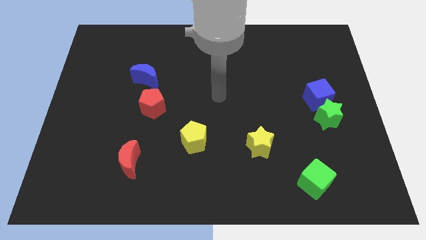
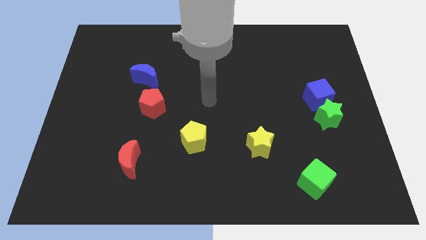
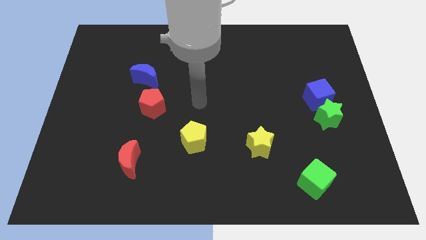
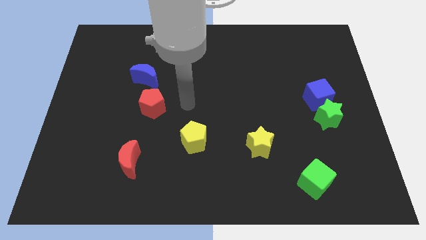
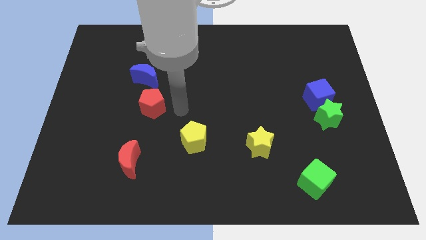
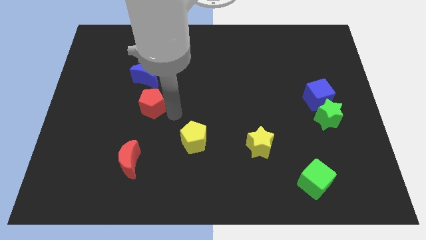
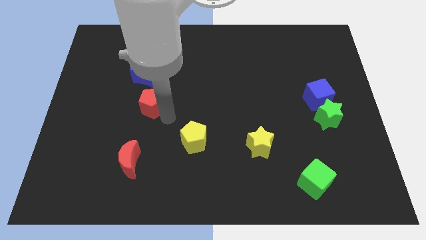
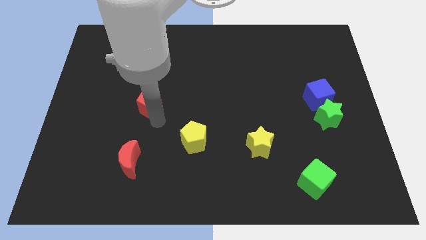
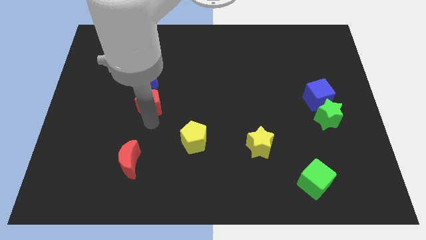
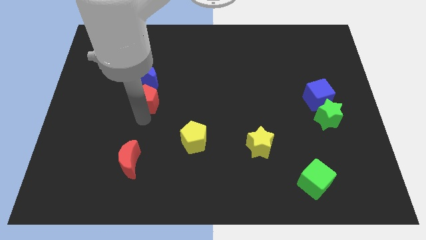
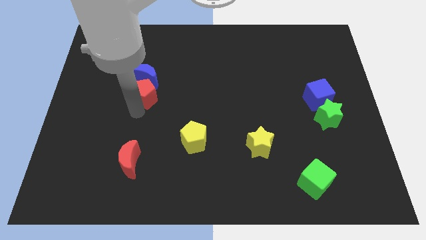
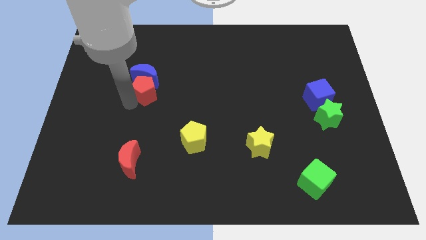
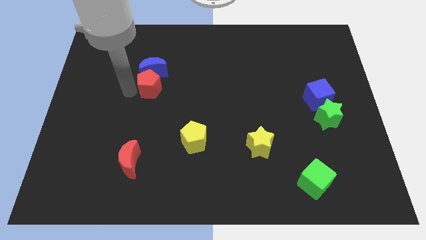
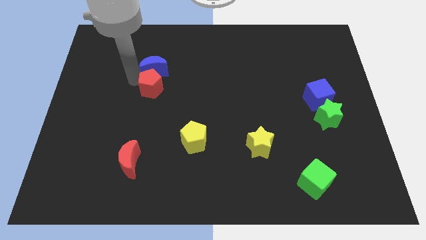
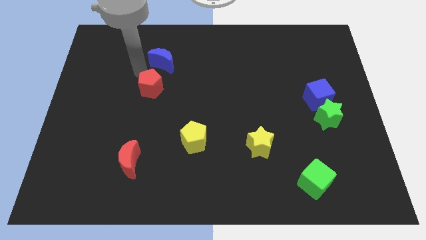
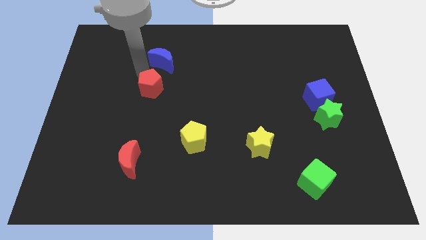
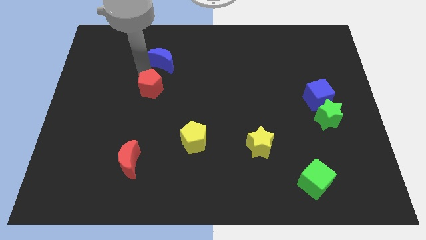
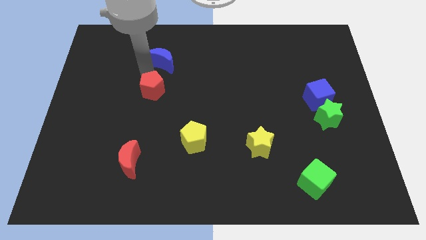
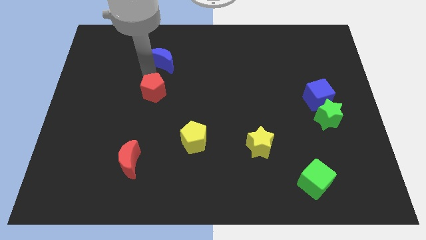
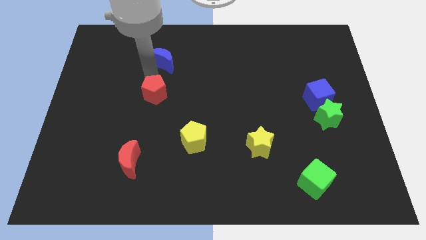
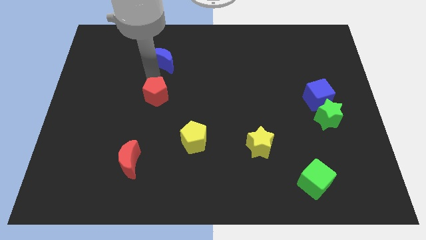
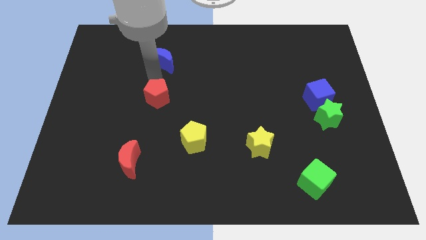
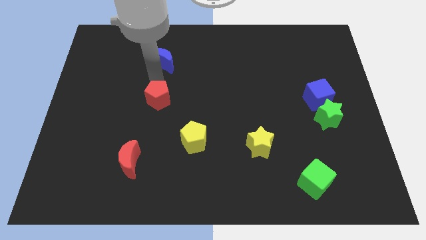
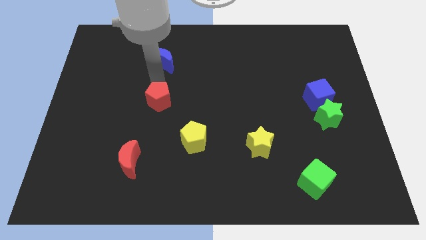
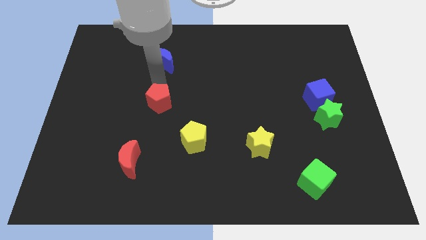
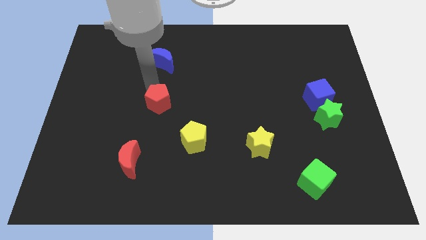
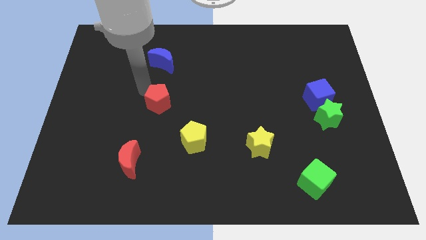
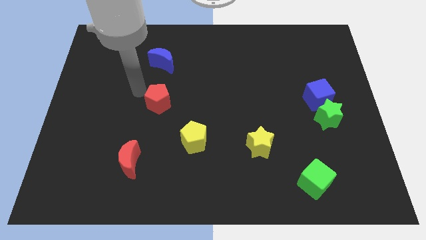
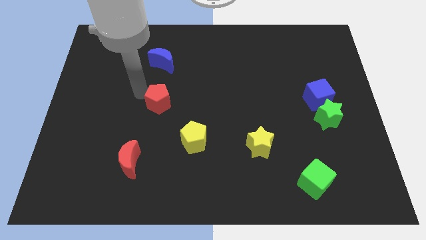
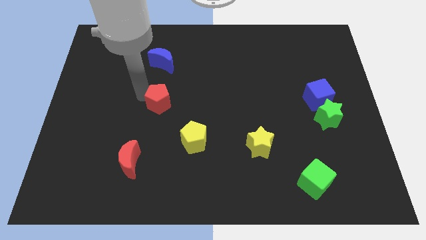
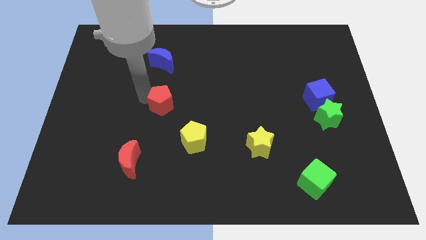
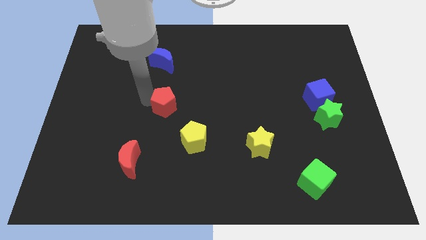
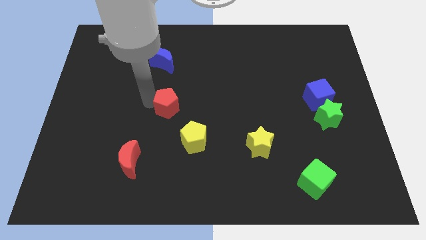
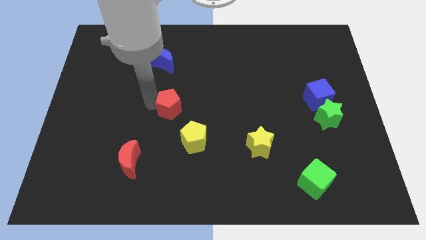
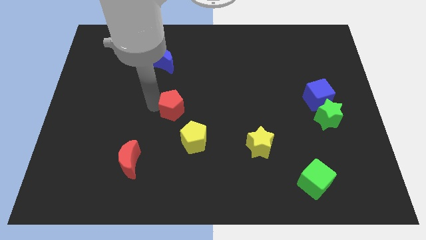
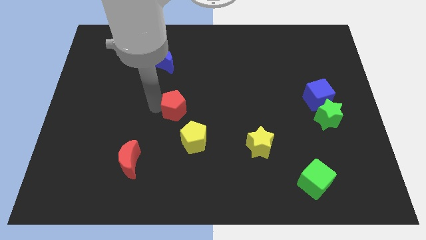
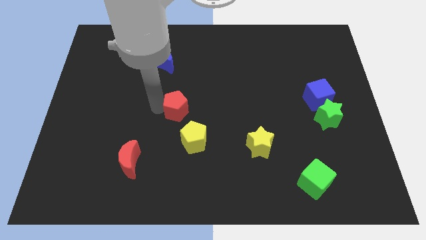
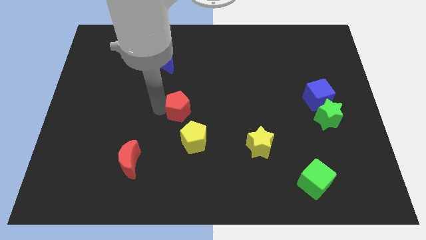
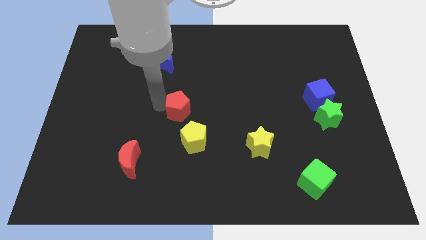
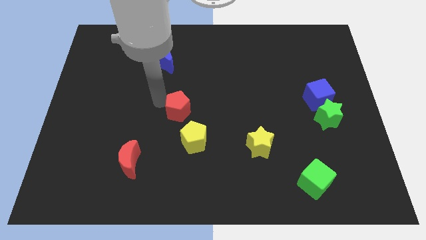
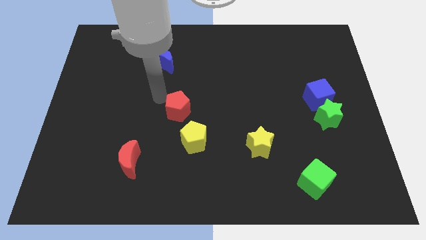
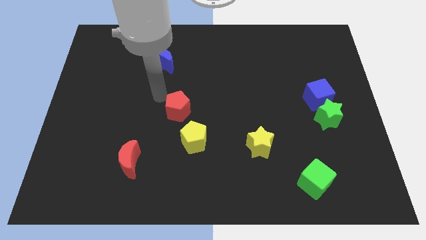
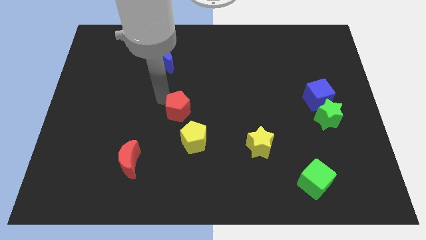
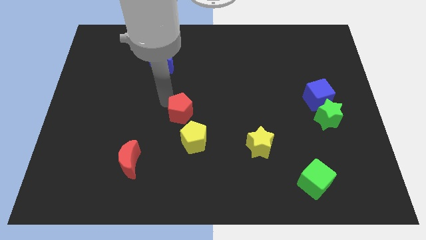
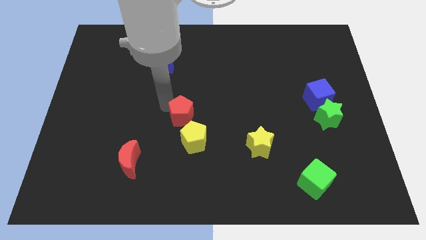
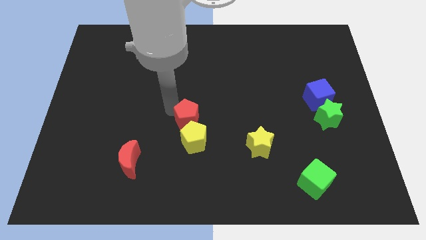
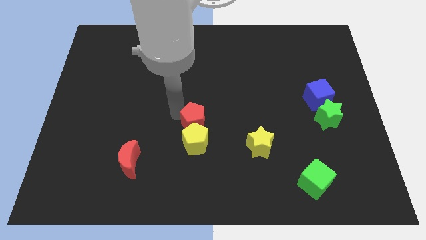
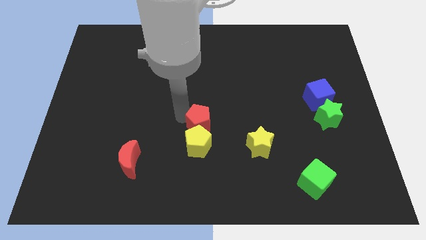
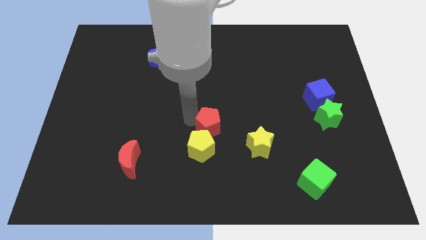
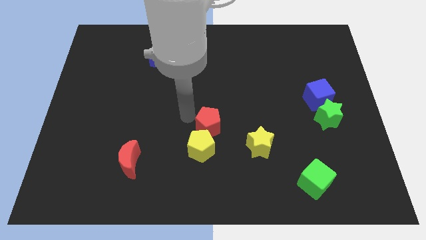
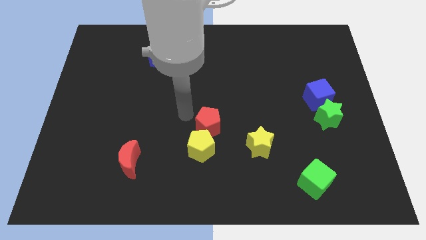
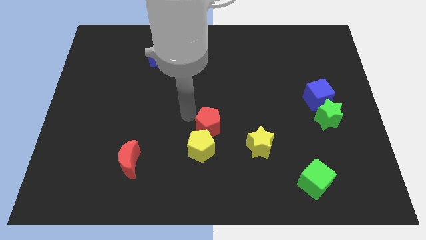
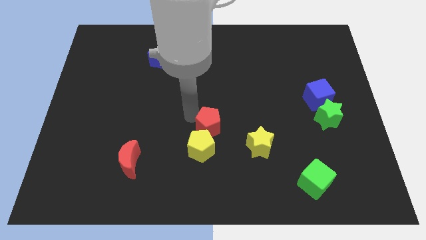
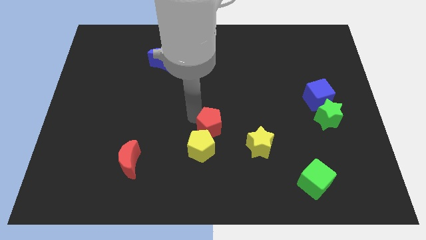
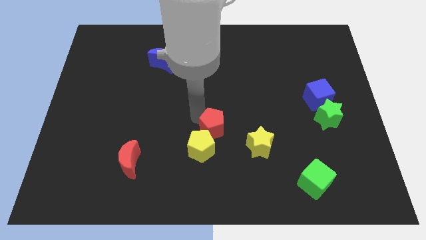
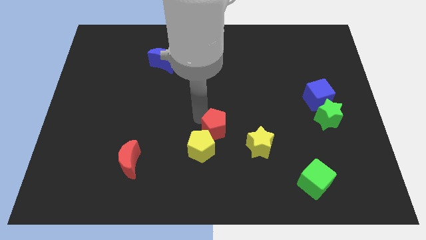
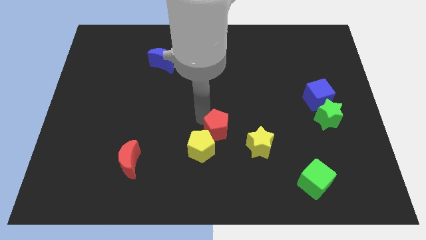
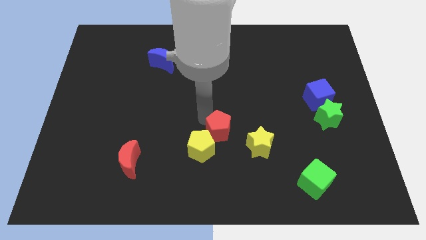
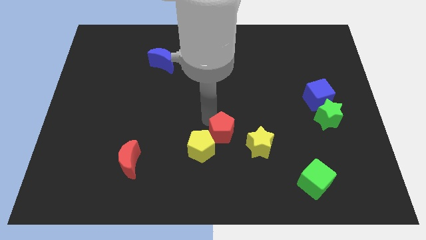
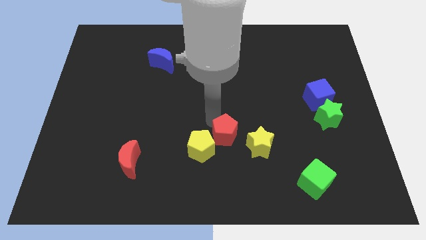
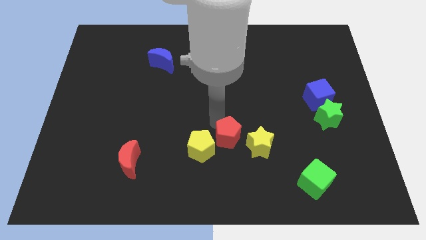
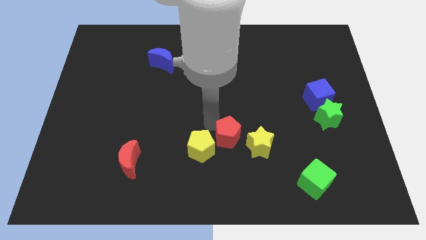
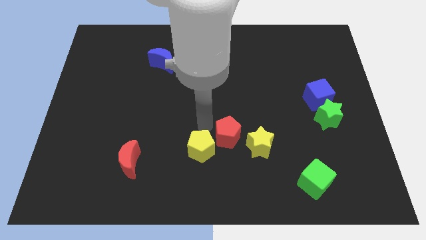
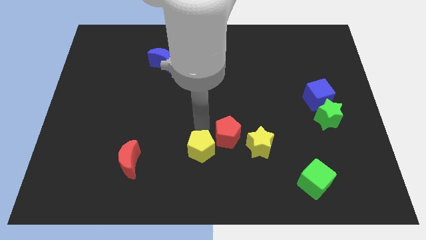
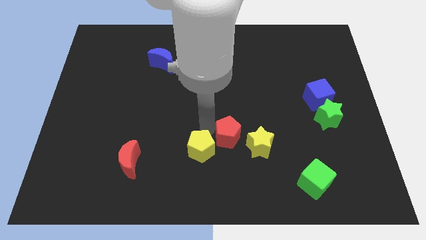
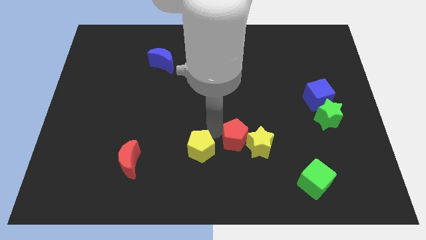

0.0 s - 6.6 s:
move the red pentagon close to the yellow star

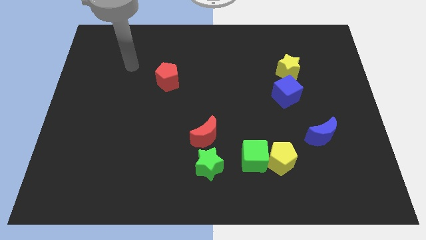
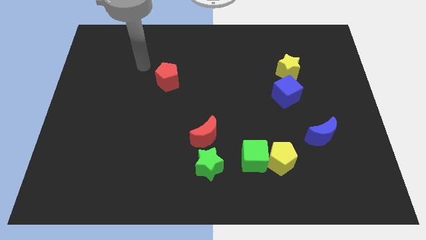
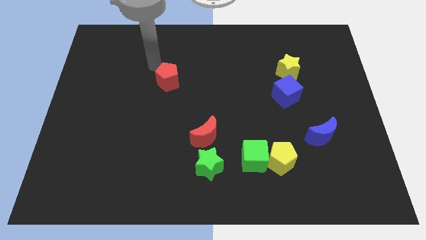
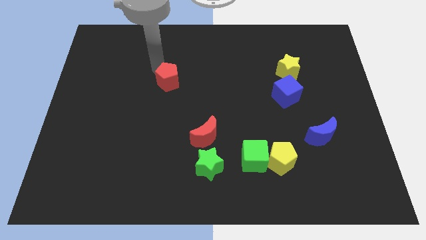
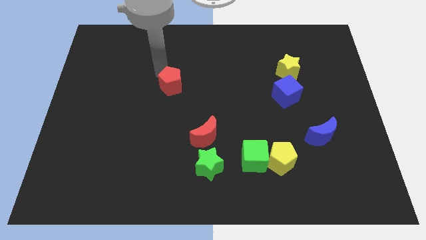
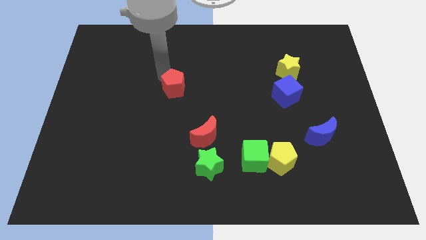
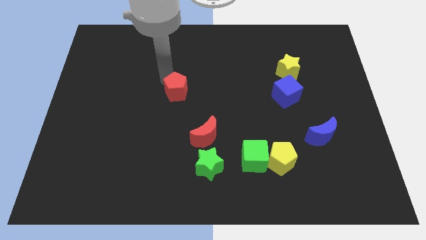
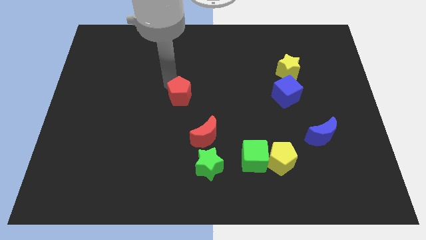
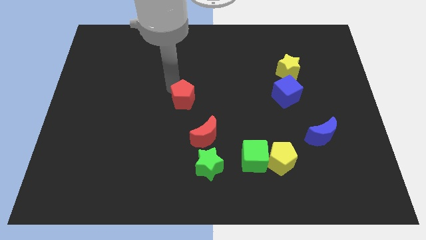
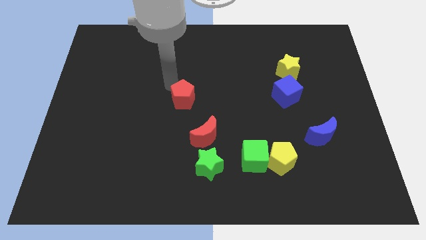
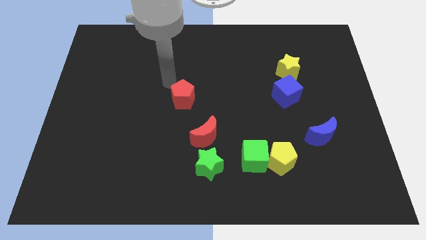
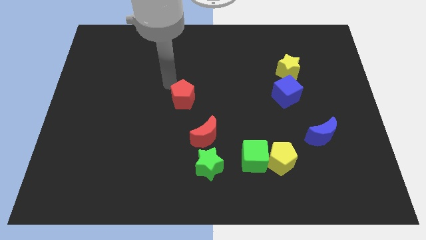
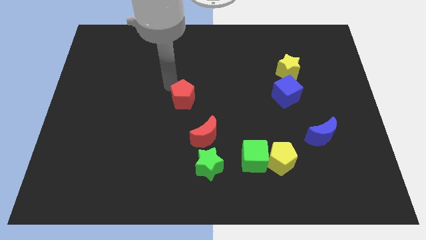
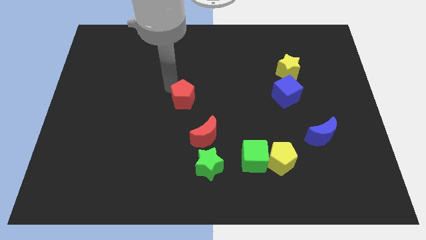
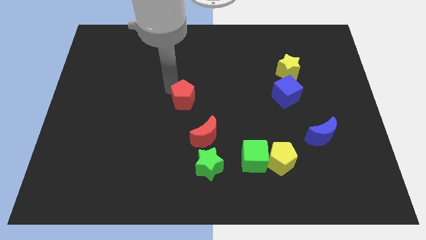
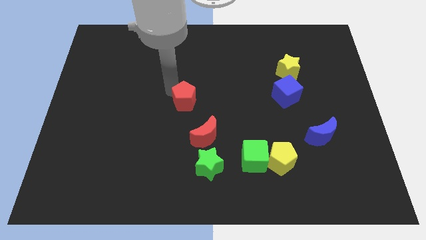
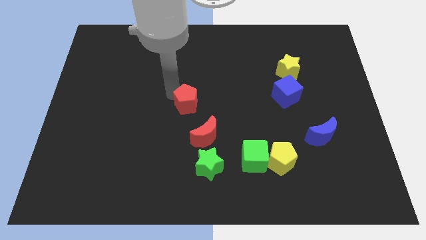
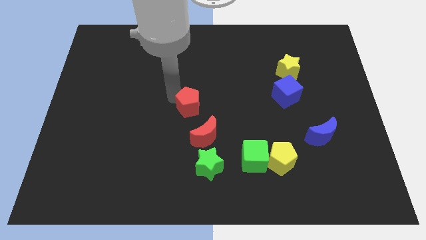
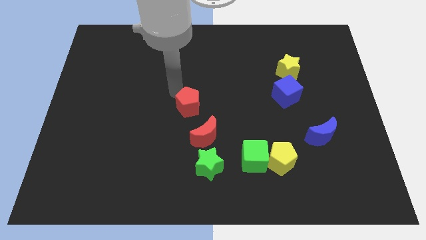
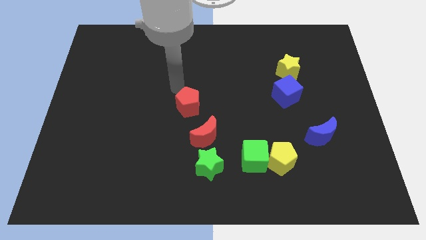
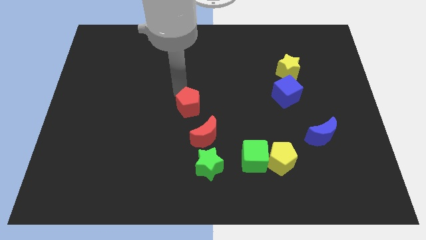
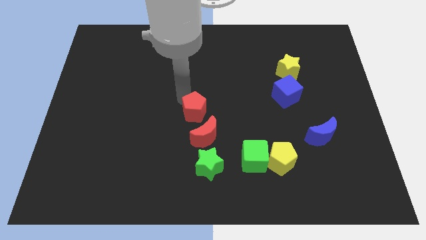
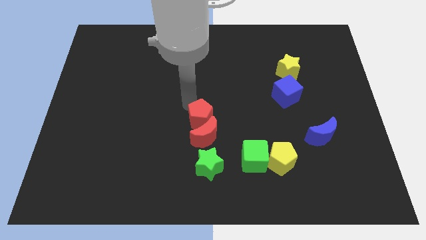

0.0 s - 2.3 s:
push the red pentagon to the red moon
